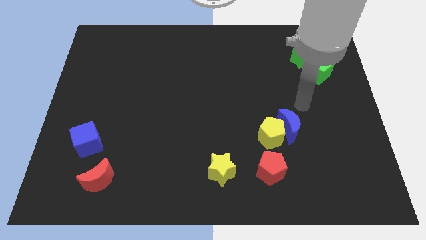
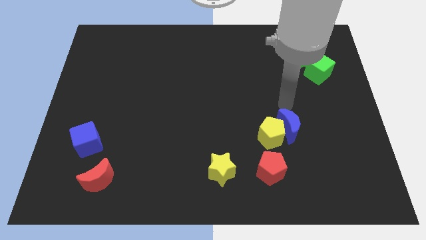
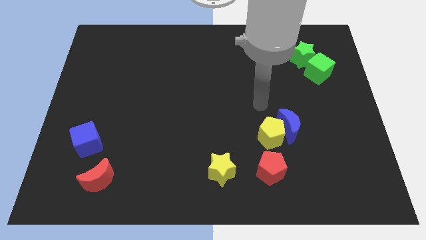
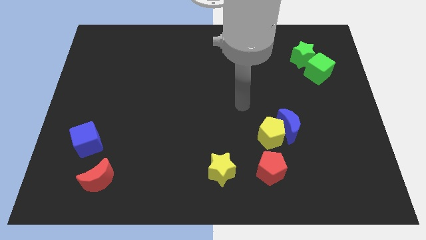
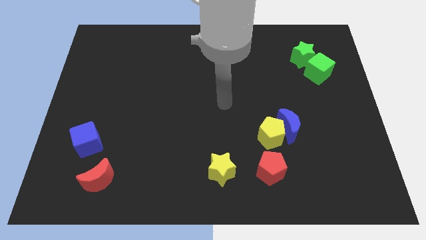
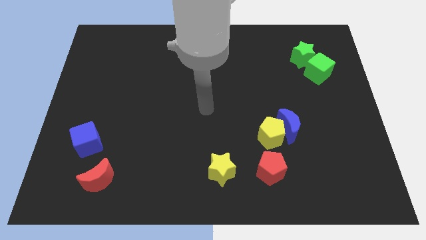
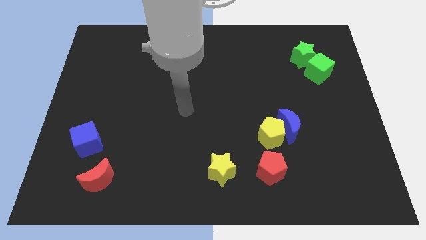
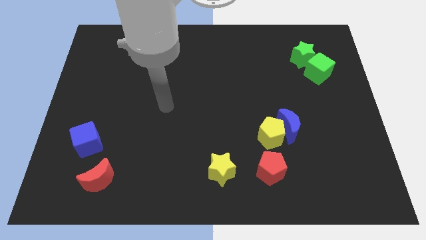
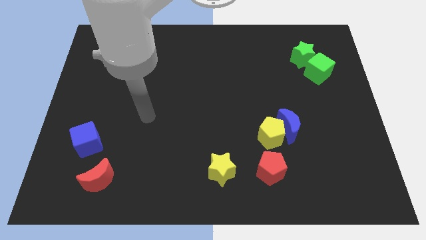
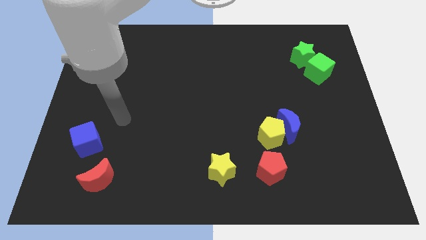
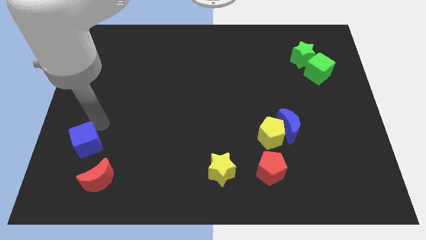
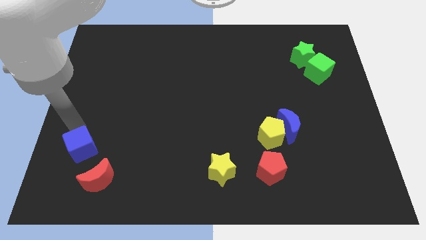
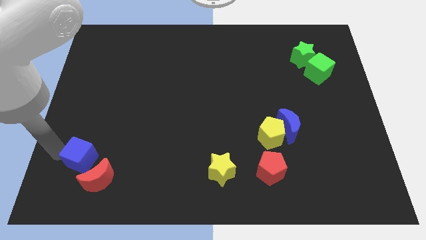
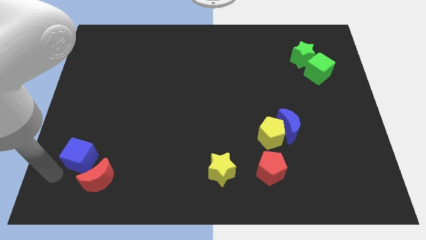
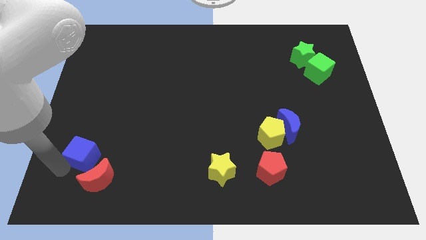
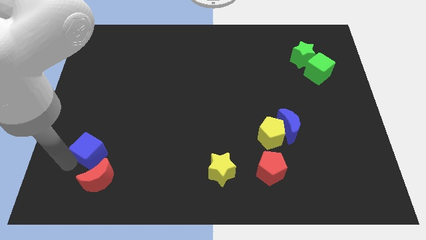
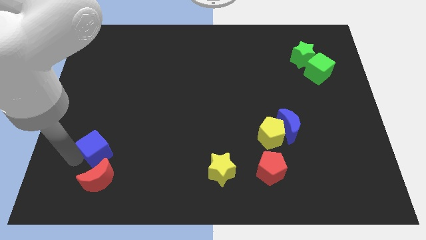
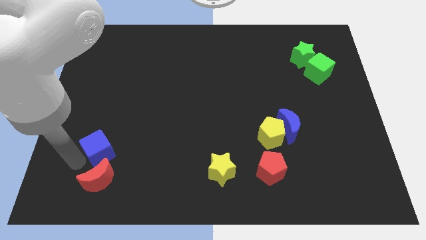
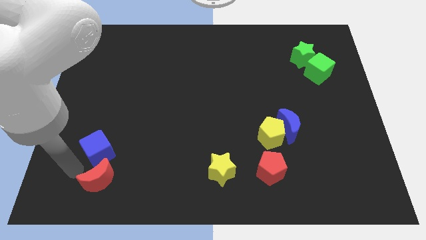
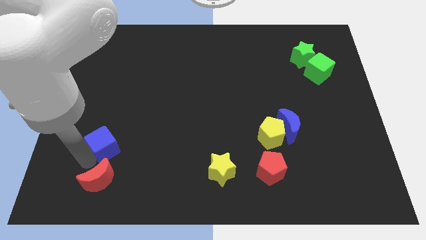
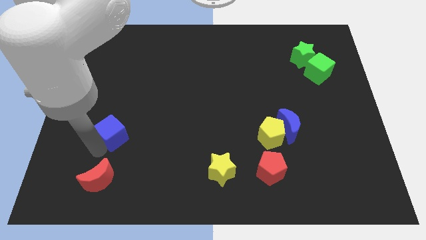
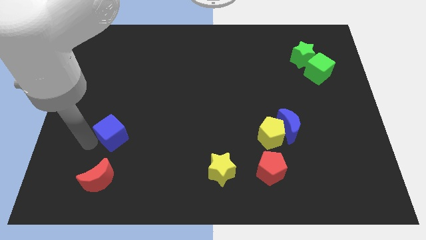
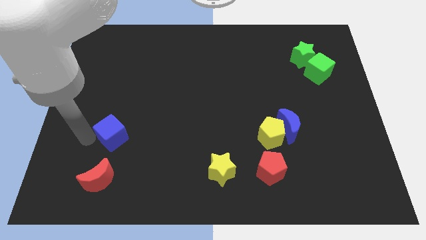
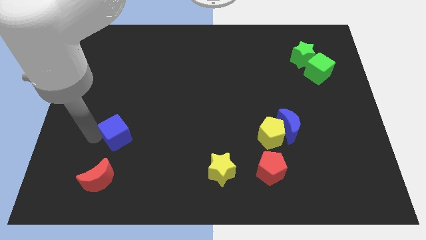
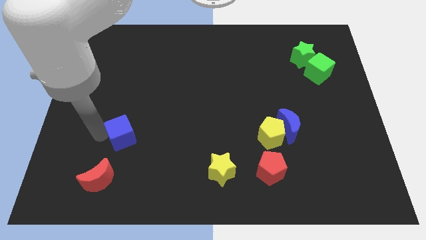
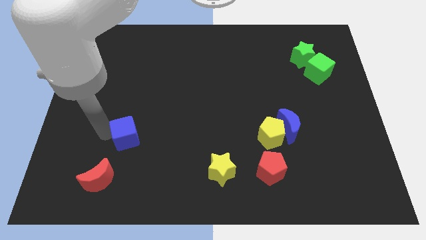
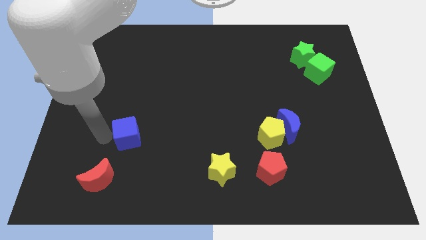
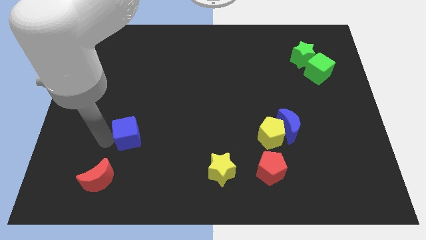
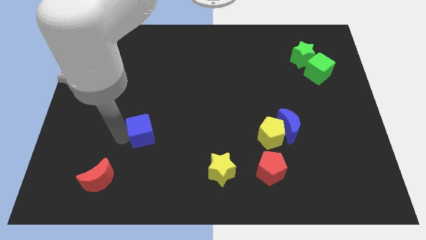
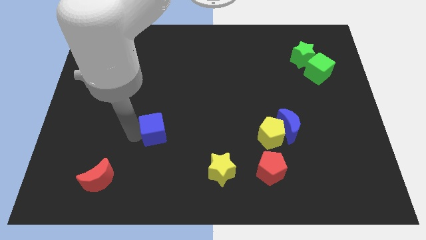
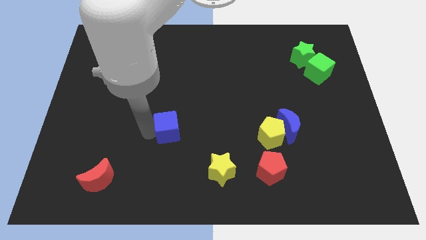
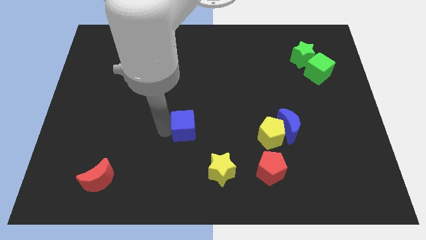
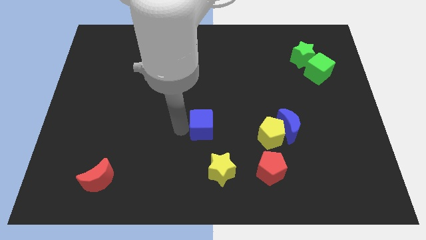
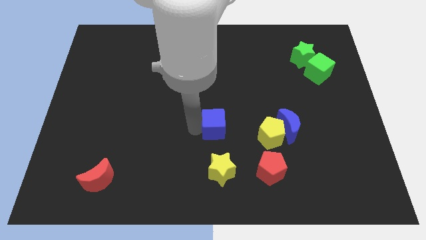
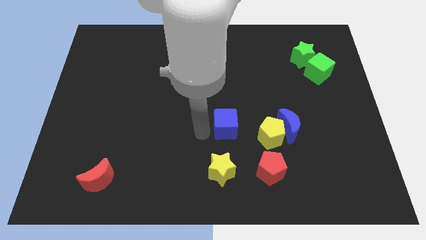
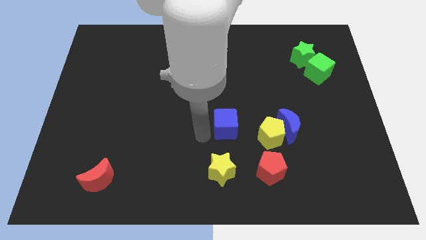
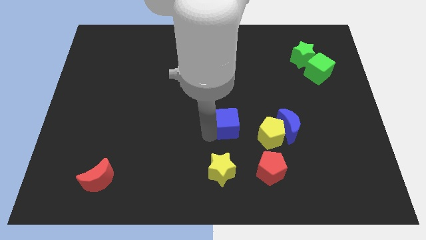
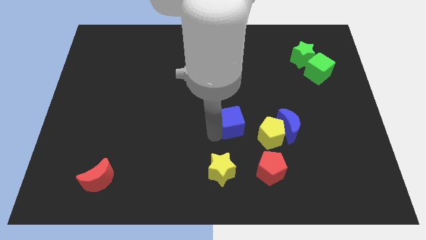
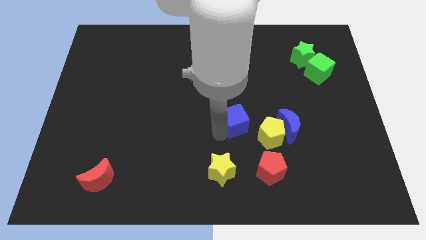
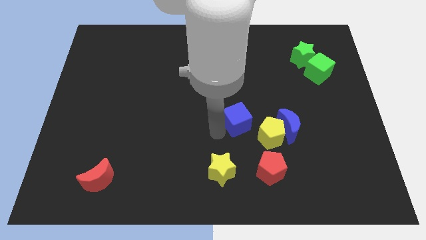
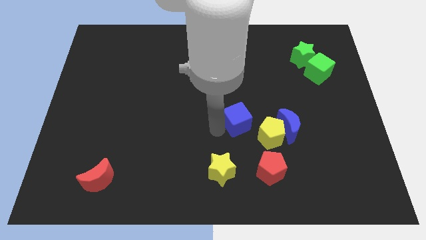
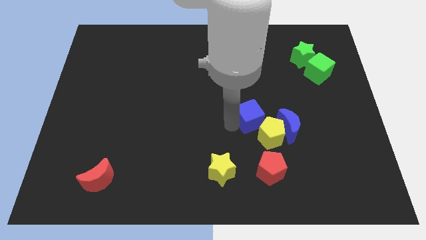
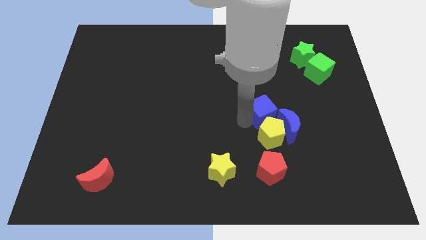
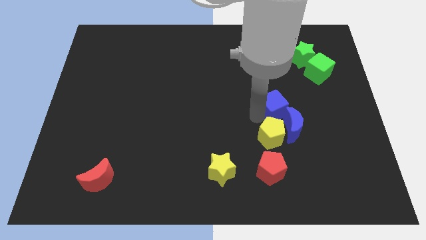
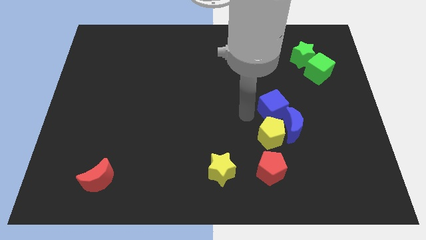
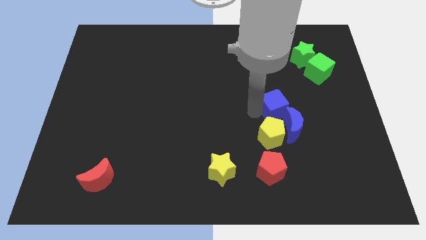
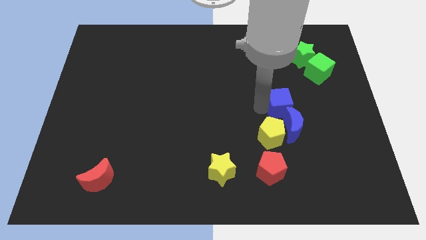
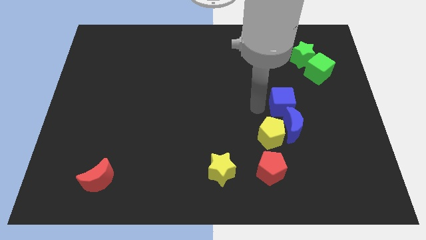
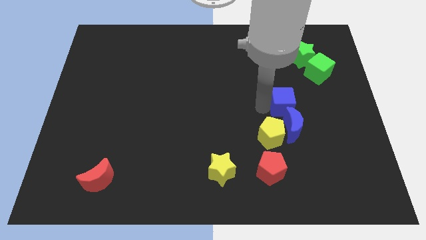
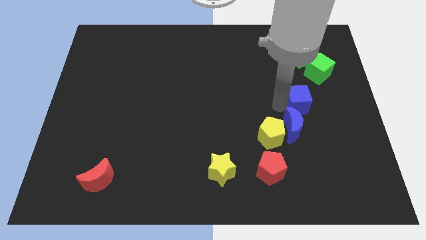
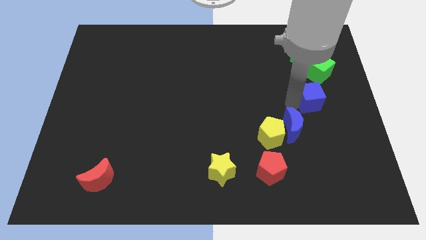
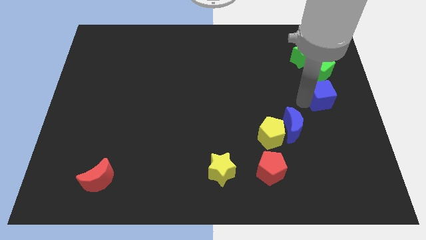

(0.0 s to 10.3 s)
move the blue cube to the center right

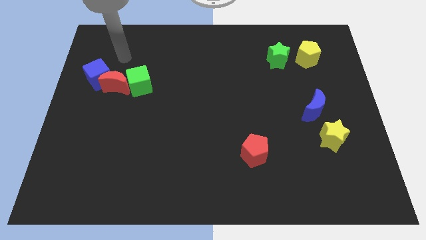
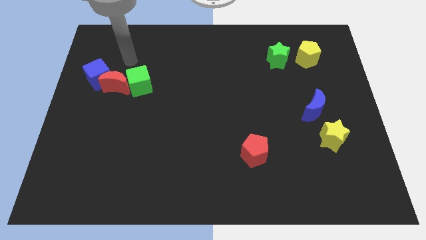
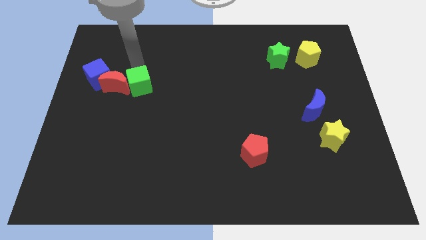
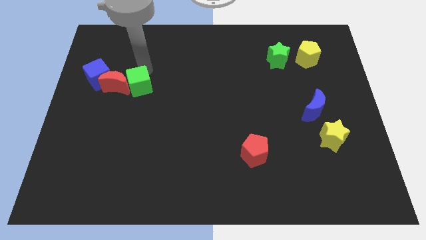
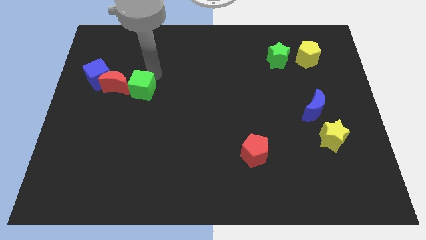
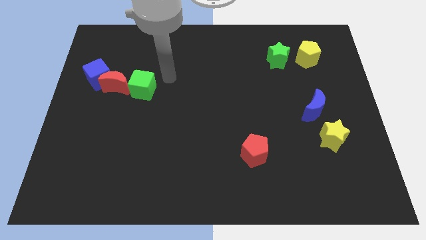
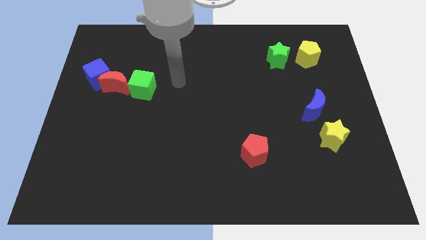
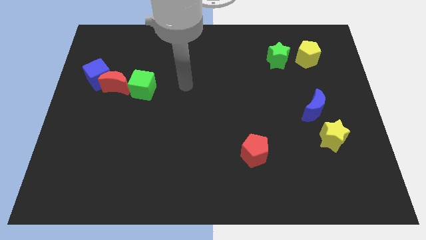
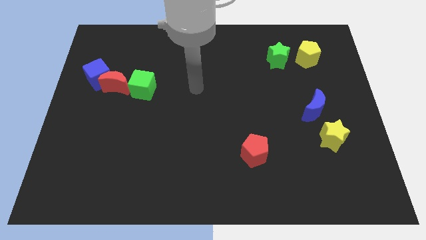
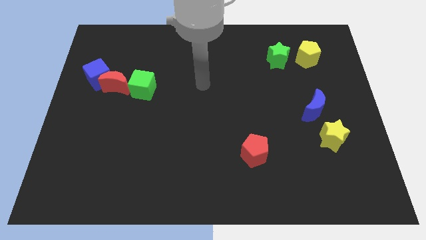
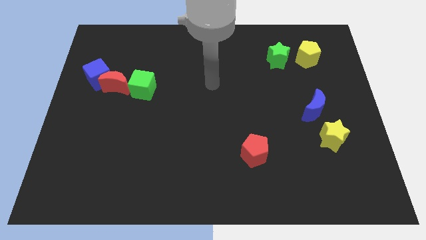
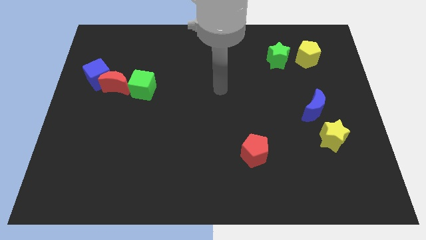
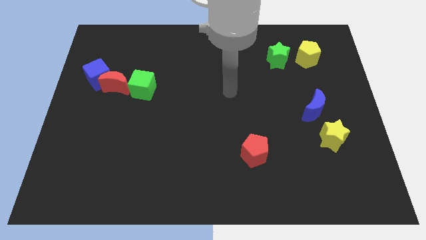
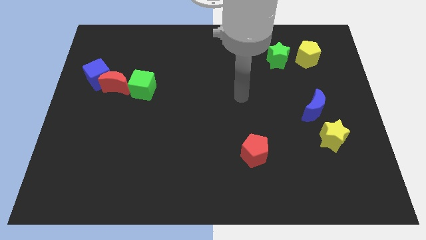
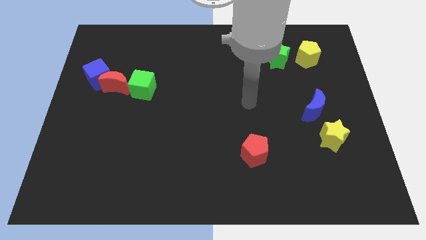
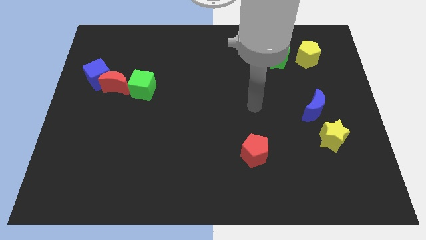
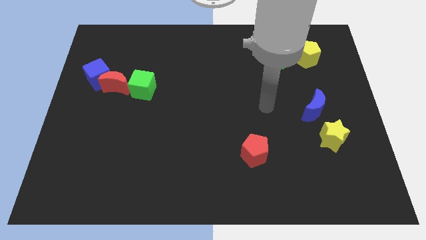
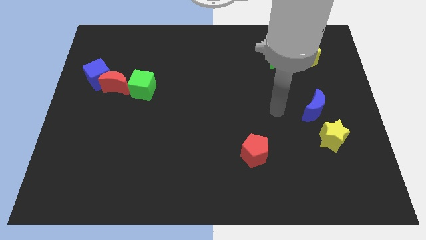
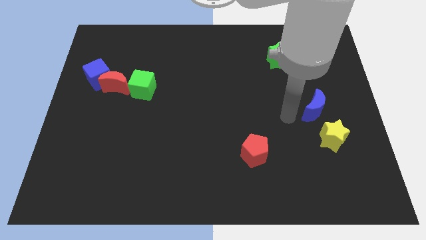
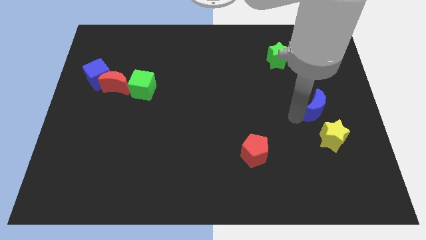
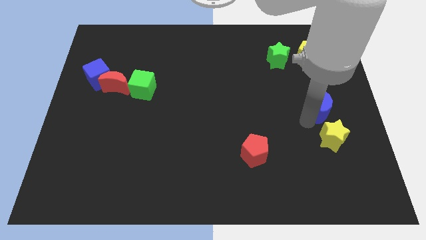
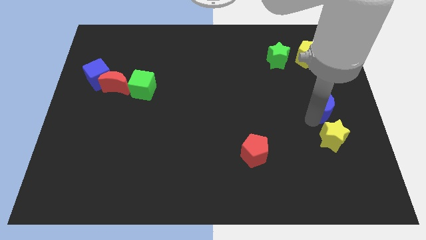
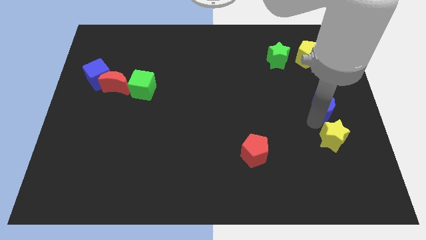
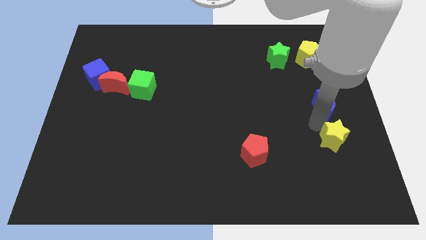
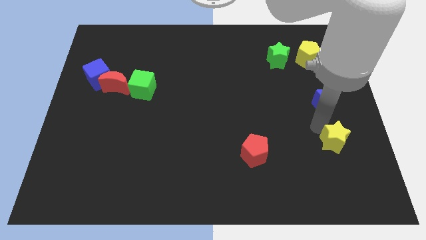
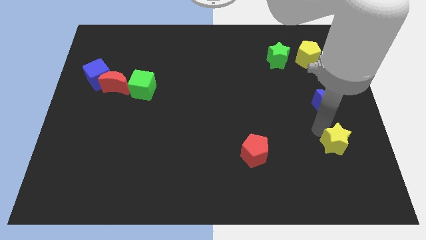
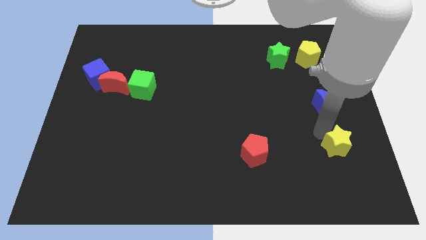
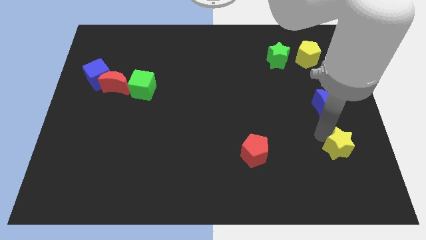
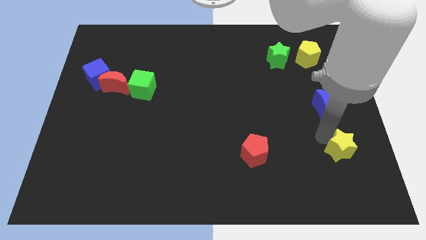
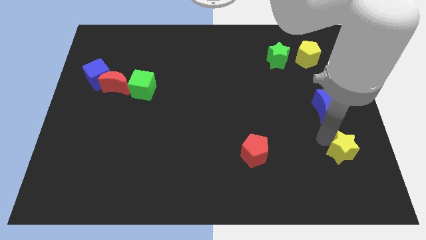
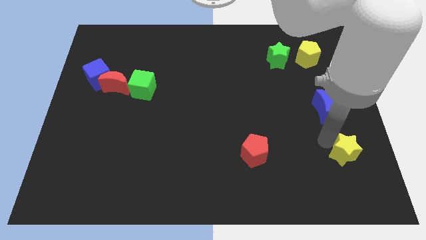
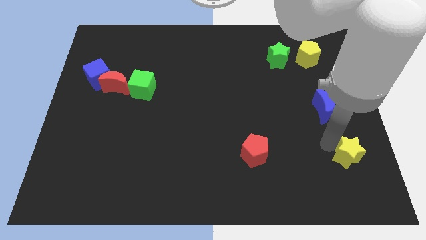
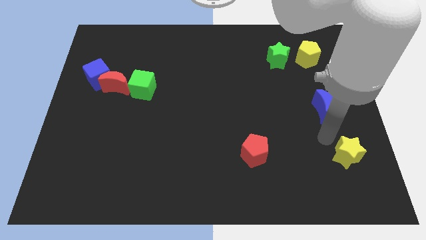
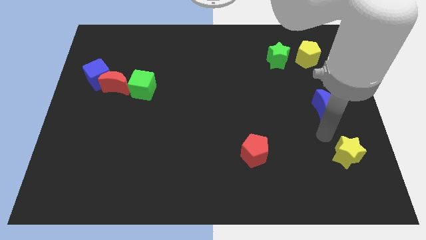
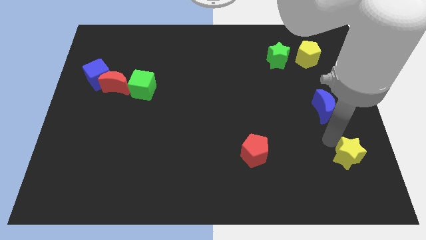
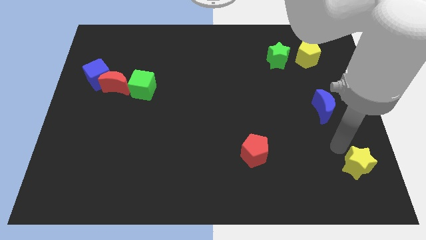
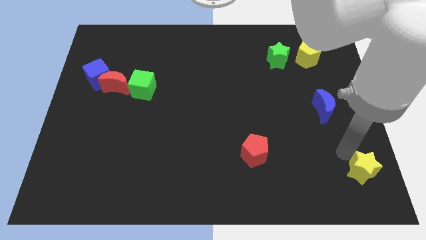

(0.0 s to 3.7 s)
put the yellow star to the bottom right
